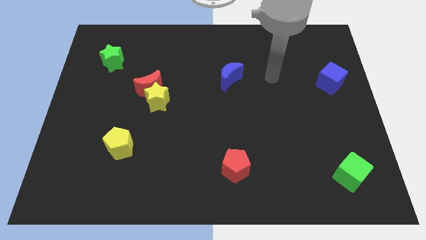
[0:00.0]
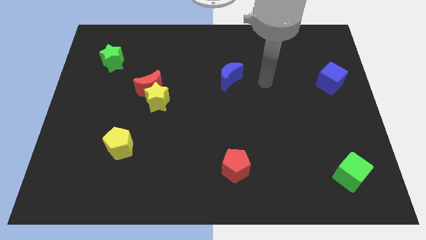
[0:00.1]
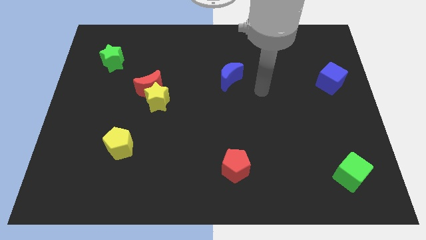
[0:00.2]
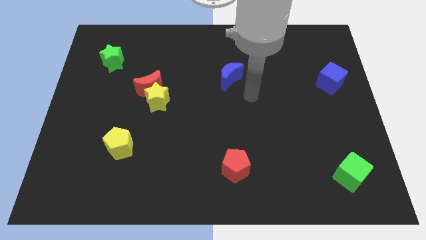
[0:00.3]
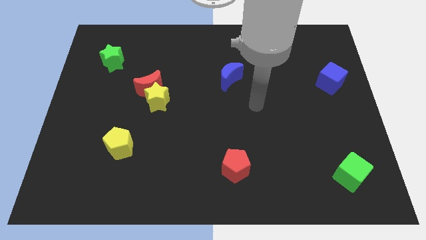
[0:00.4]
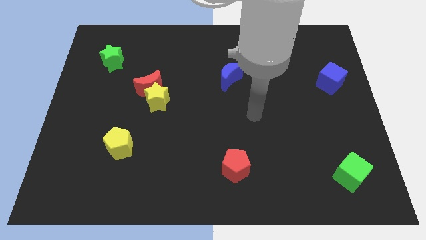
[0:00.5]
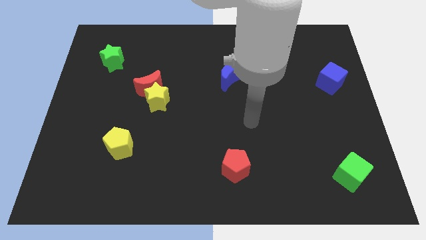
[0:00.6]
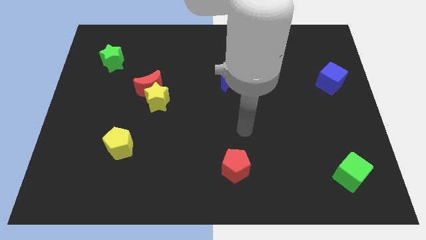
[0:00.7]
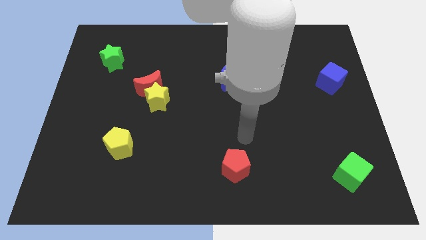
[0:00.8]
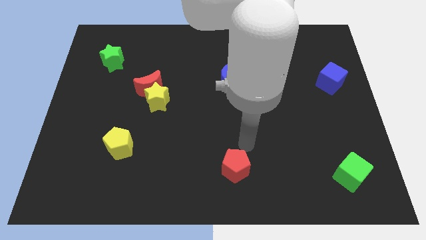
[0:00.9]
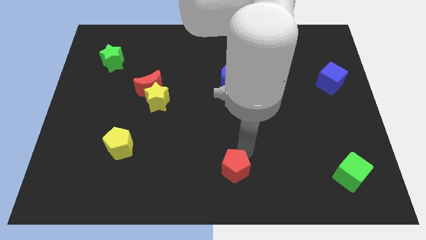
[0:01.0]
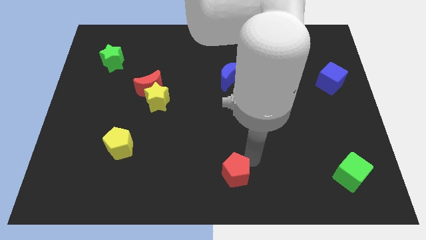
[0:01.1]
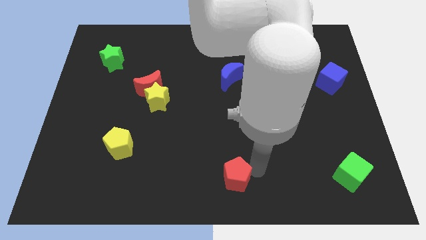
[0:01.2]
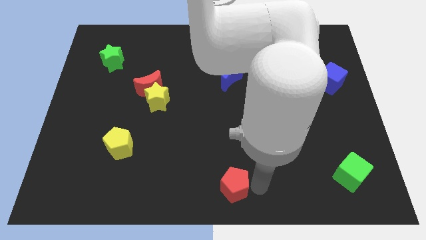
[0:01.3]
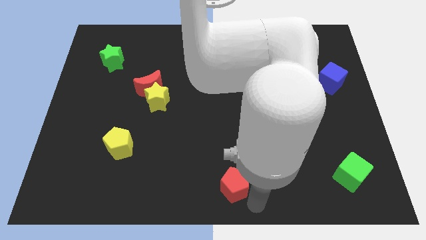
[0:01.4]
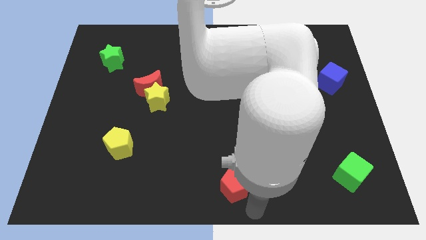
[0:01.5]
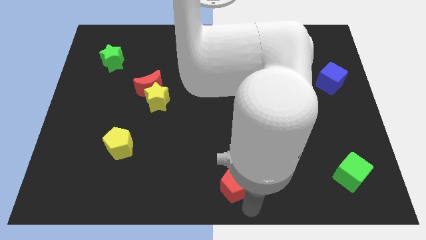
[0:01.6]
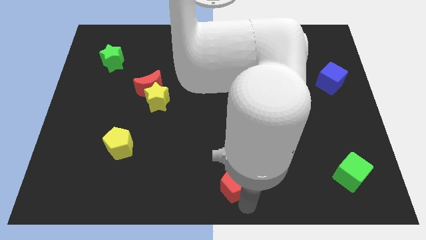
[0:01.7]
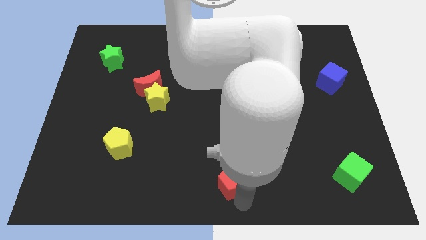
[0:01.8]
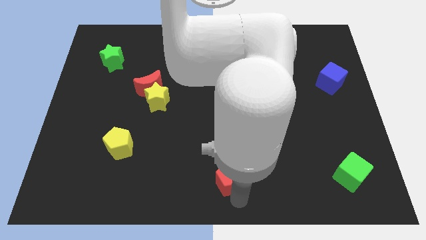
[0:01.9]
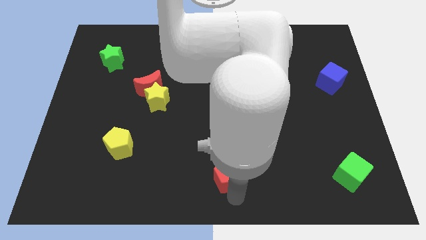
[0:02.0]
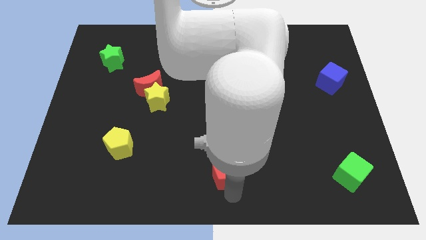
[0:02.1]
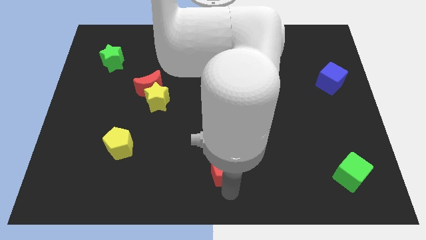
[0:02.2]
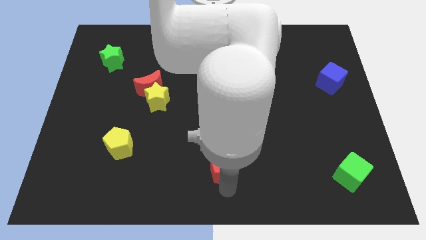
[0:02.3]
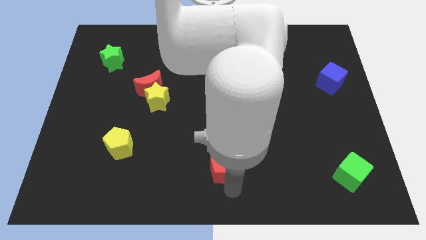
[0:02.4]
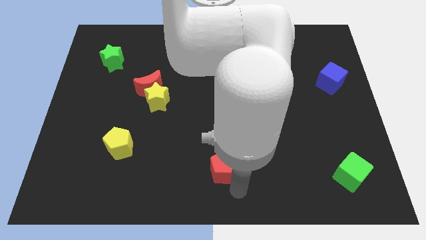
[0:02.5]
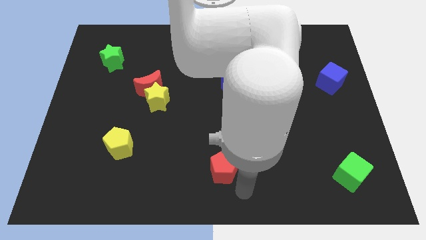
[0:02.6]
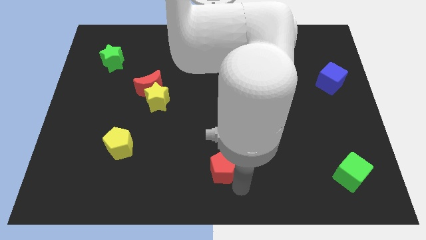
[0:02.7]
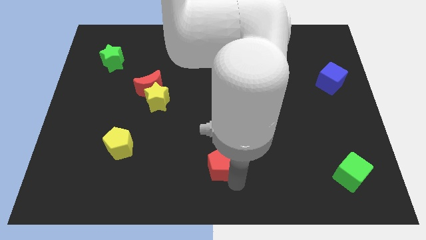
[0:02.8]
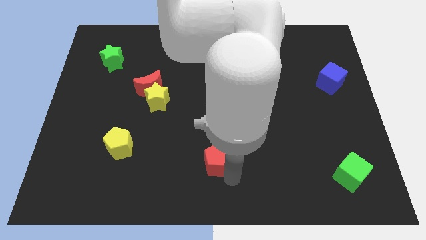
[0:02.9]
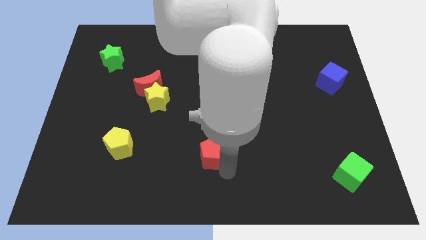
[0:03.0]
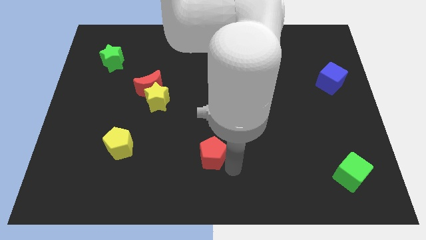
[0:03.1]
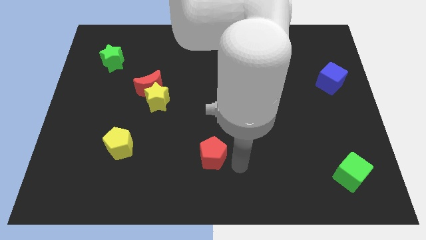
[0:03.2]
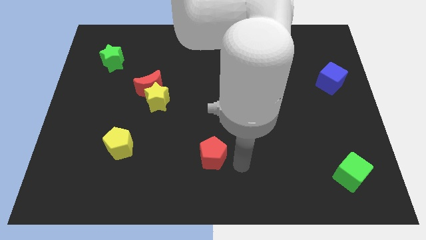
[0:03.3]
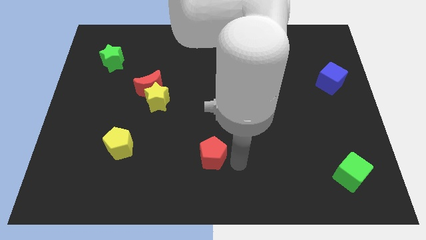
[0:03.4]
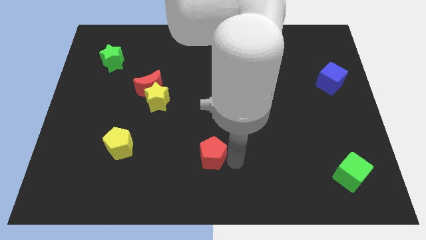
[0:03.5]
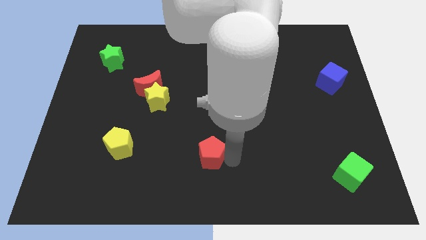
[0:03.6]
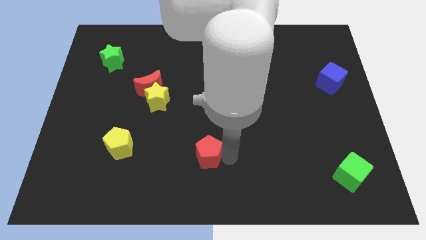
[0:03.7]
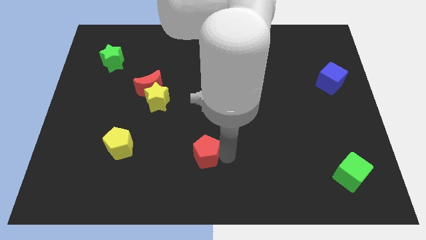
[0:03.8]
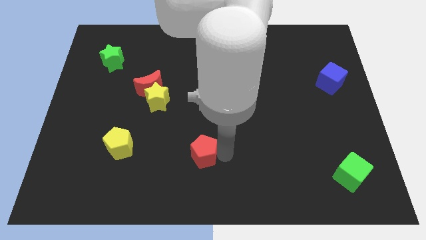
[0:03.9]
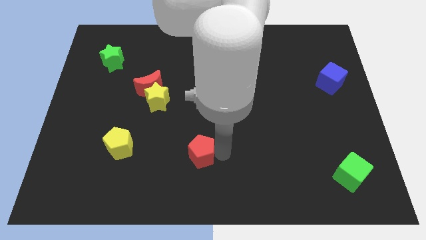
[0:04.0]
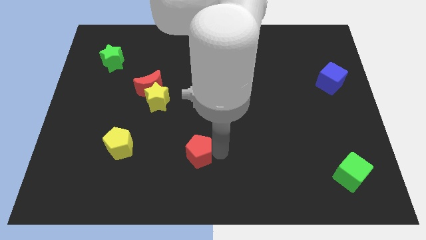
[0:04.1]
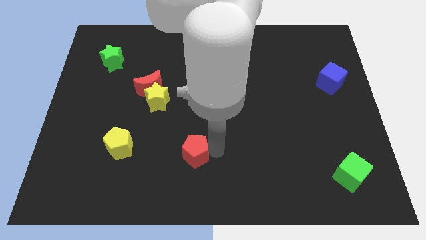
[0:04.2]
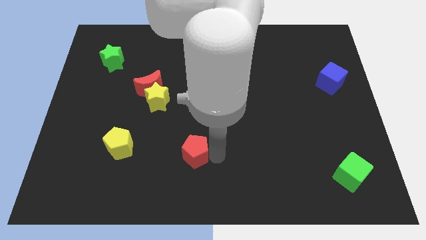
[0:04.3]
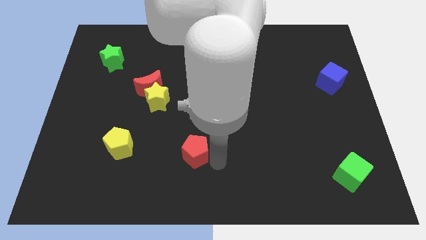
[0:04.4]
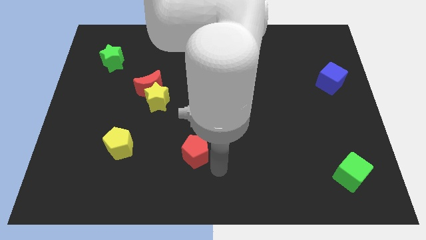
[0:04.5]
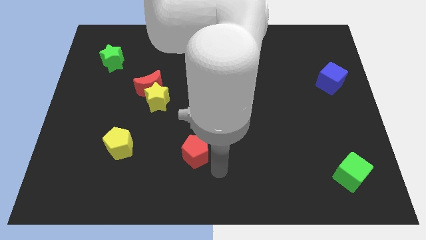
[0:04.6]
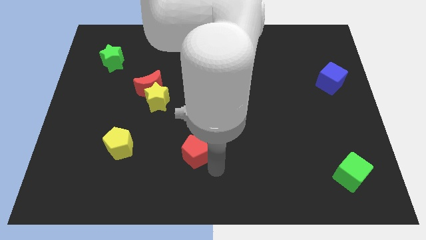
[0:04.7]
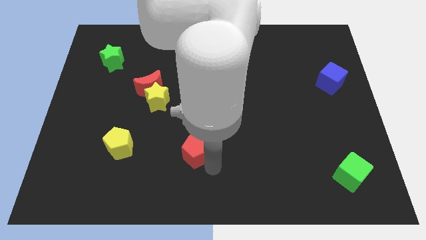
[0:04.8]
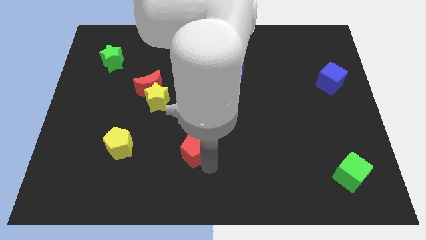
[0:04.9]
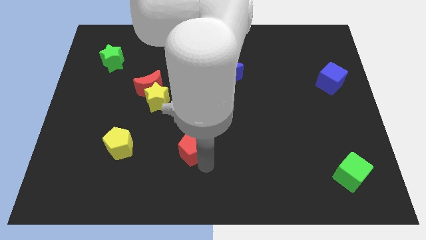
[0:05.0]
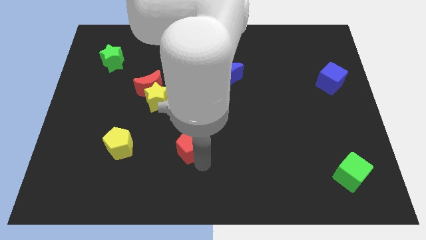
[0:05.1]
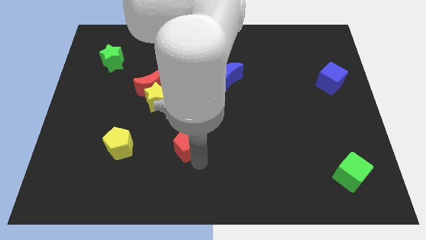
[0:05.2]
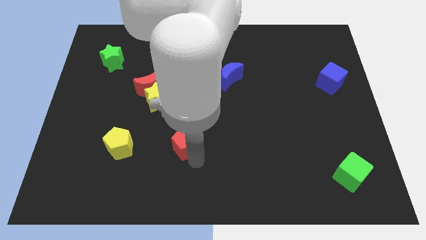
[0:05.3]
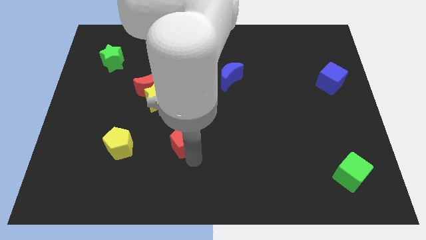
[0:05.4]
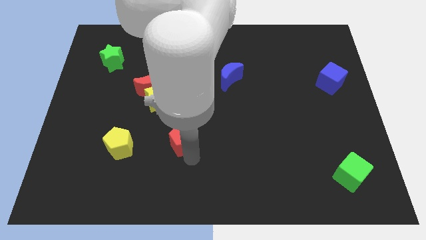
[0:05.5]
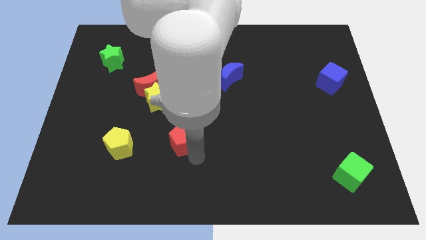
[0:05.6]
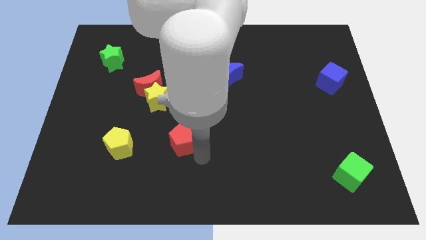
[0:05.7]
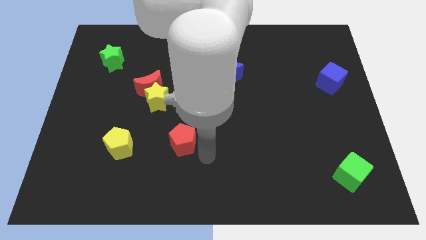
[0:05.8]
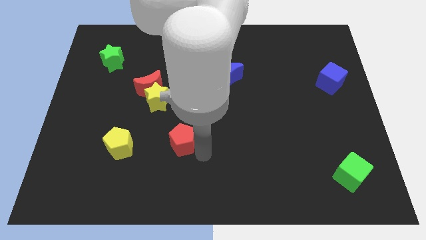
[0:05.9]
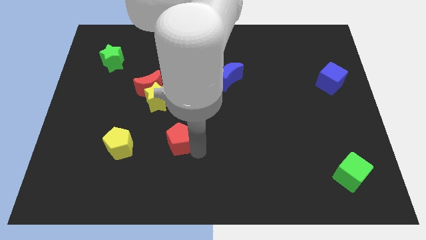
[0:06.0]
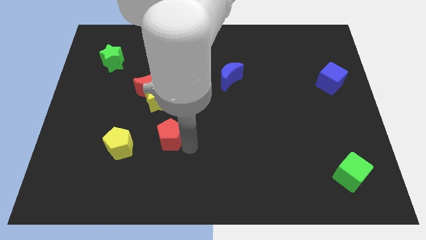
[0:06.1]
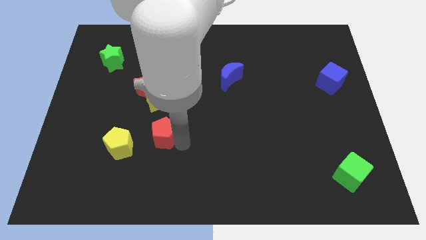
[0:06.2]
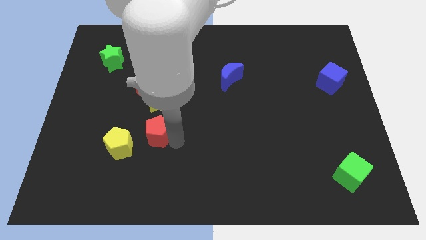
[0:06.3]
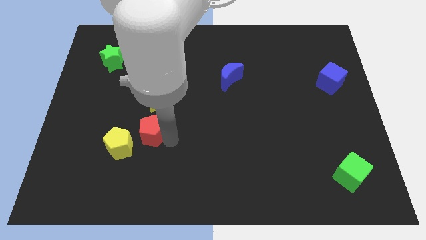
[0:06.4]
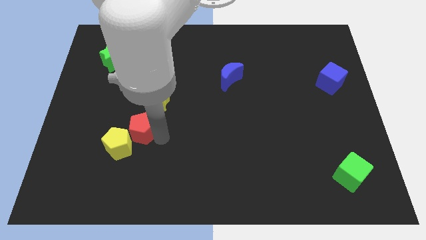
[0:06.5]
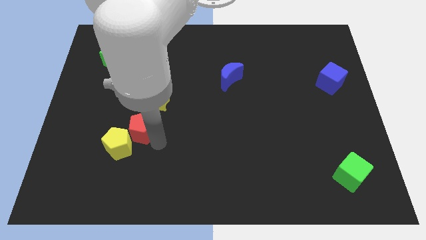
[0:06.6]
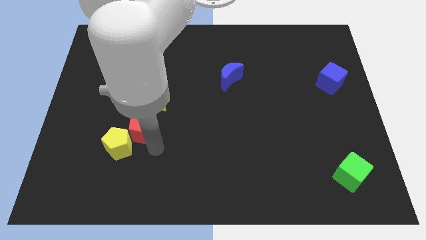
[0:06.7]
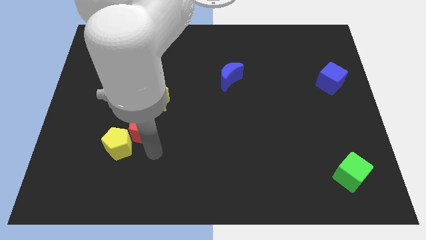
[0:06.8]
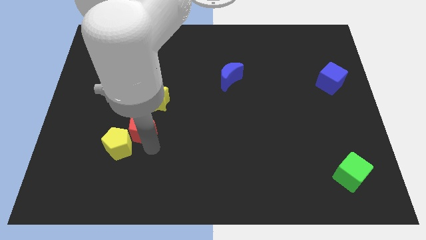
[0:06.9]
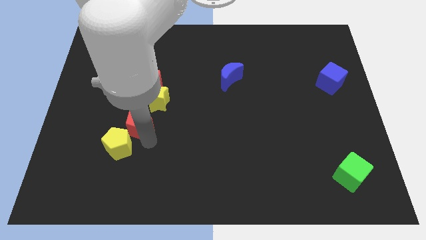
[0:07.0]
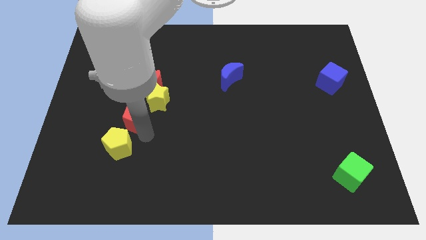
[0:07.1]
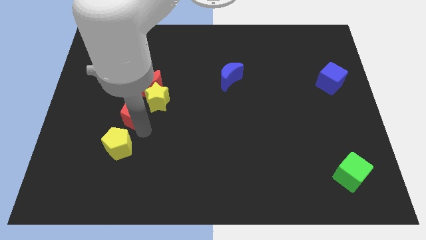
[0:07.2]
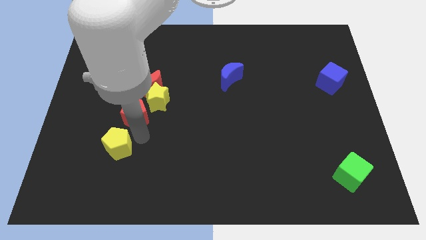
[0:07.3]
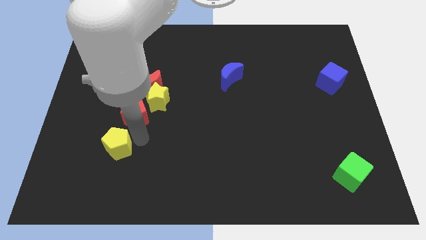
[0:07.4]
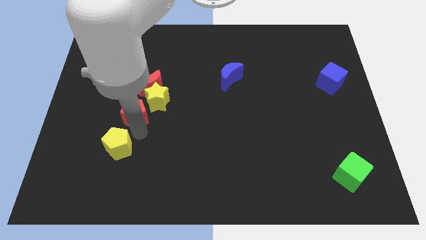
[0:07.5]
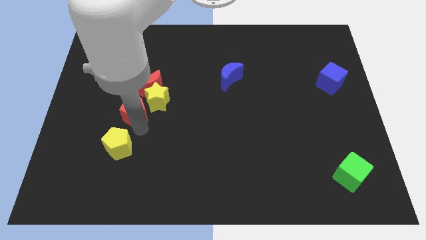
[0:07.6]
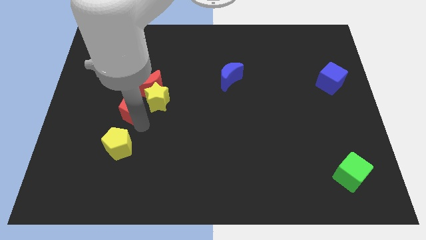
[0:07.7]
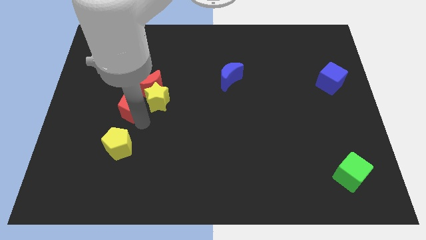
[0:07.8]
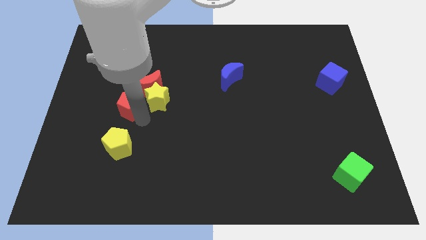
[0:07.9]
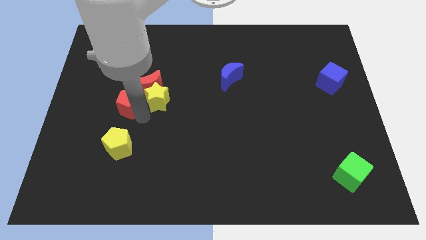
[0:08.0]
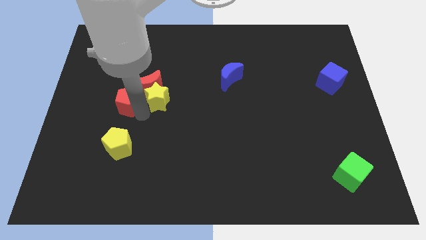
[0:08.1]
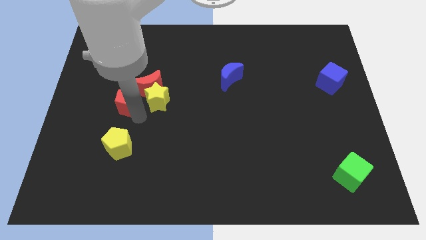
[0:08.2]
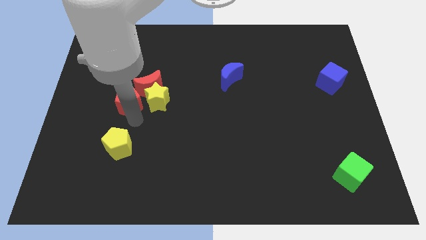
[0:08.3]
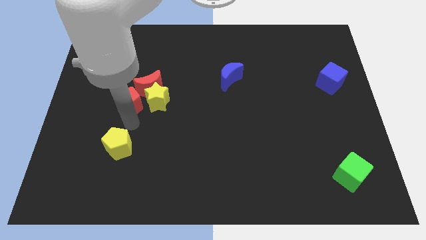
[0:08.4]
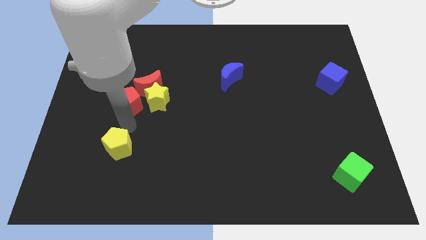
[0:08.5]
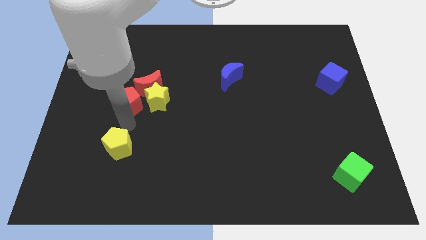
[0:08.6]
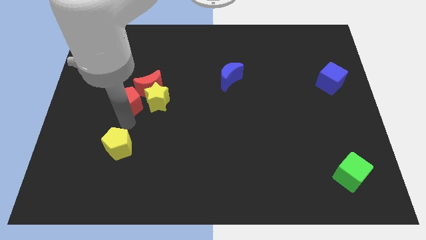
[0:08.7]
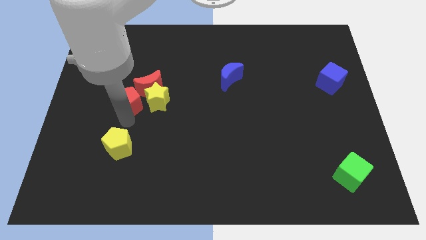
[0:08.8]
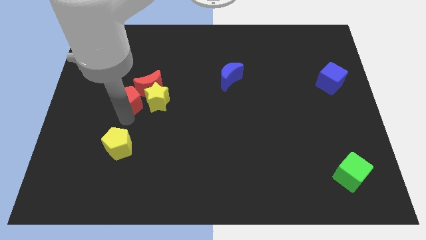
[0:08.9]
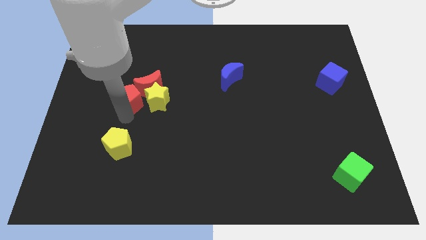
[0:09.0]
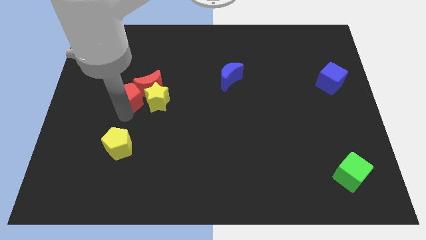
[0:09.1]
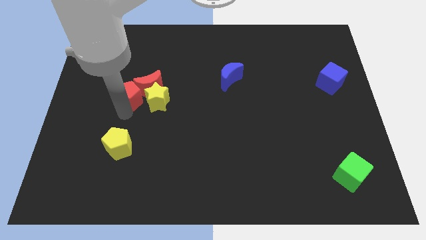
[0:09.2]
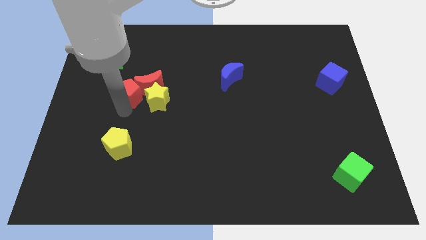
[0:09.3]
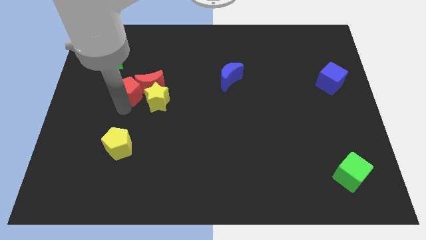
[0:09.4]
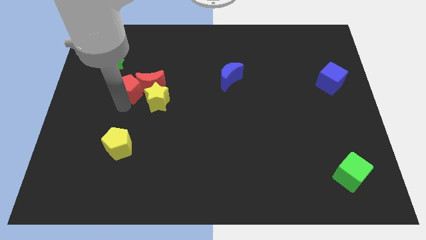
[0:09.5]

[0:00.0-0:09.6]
put the red pentagon diagonally down and to the right of the green star
